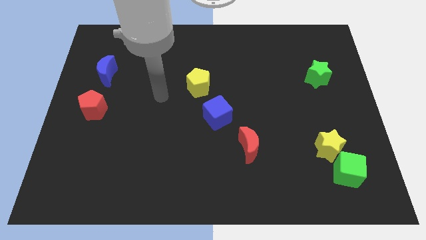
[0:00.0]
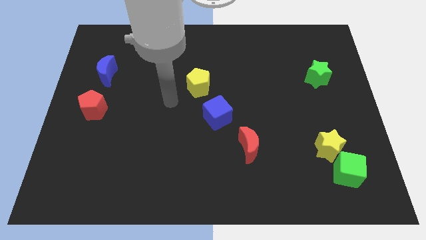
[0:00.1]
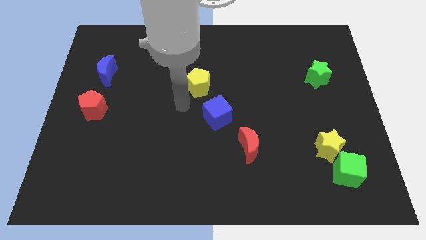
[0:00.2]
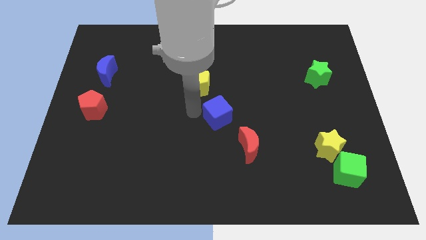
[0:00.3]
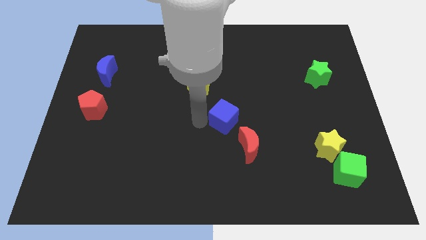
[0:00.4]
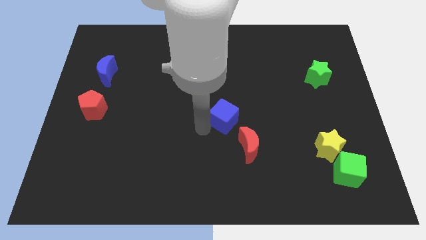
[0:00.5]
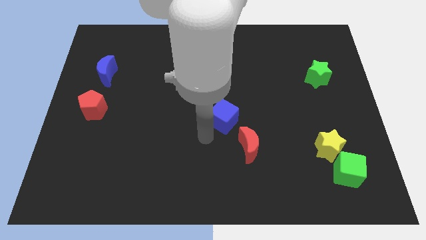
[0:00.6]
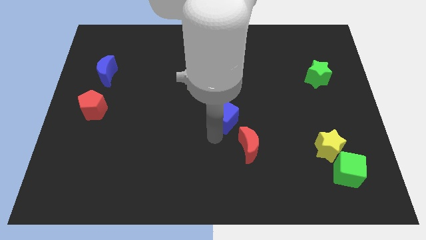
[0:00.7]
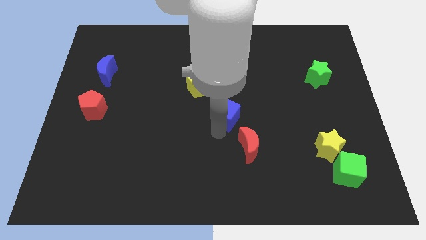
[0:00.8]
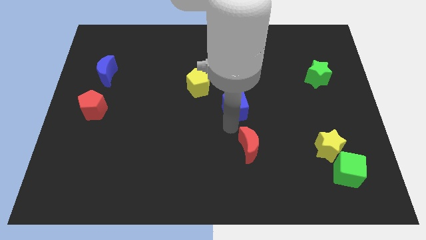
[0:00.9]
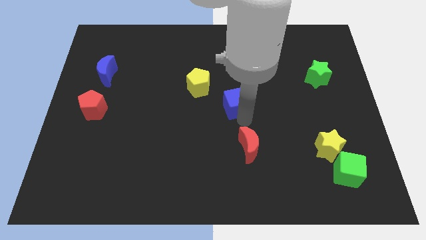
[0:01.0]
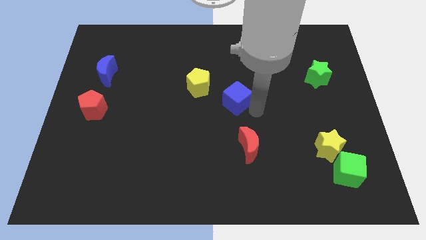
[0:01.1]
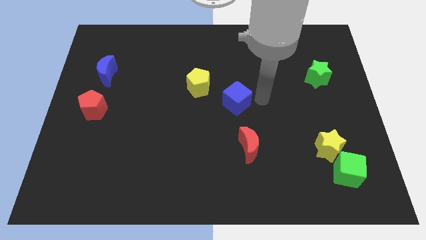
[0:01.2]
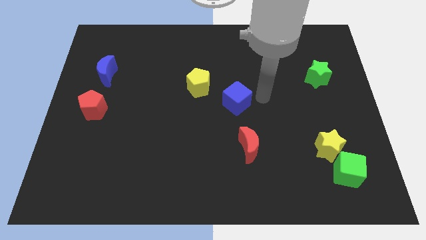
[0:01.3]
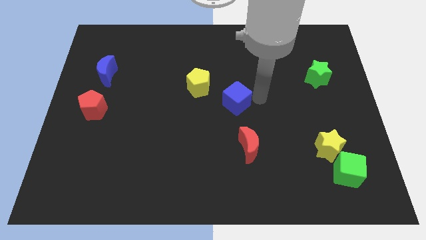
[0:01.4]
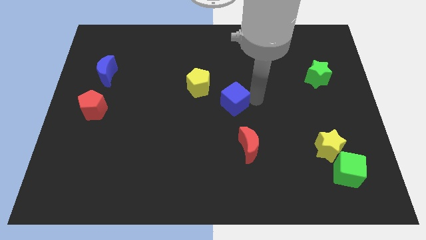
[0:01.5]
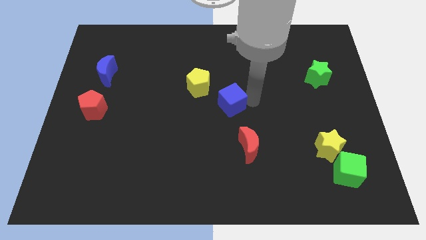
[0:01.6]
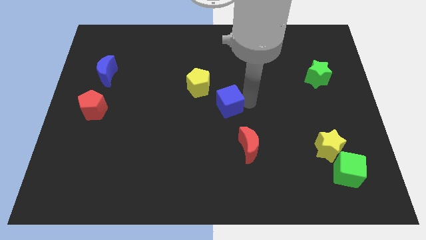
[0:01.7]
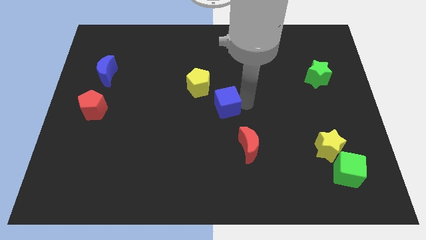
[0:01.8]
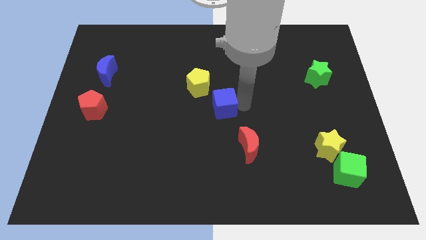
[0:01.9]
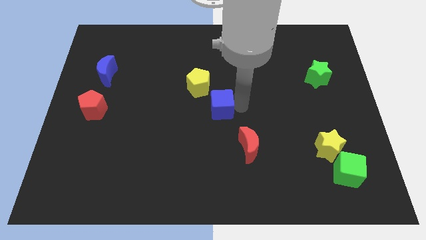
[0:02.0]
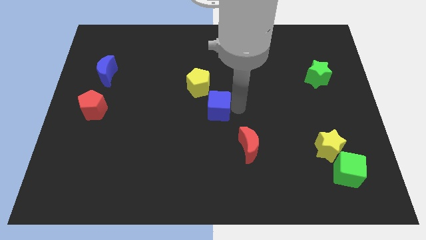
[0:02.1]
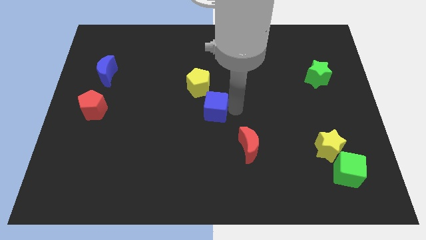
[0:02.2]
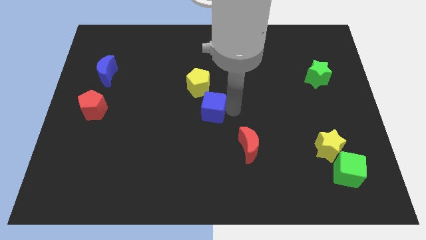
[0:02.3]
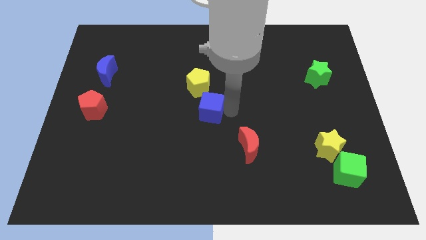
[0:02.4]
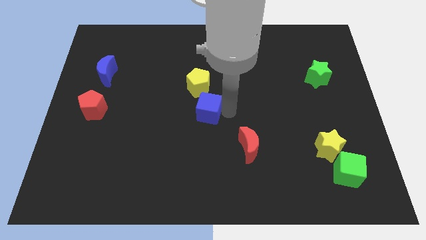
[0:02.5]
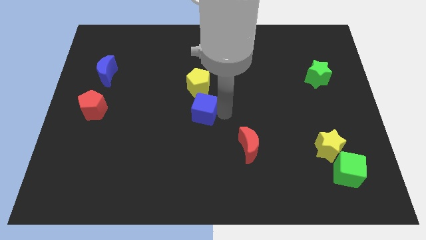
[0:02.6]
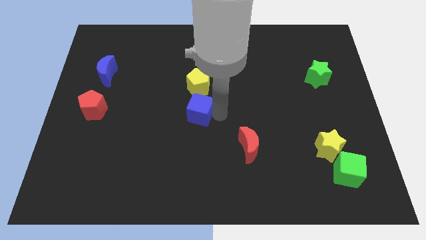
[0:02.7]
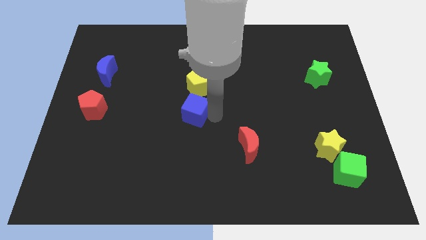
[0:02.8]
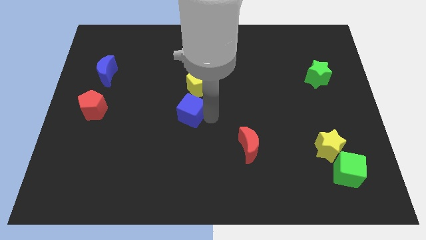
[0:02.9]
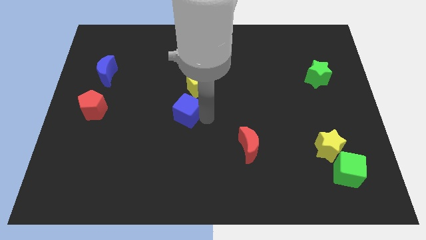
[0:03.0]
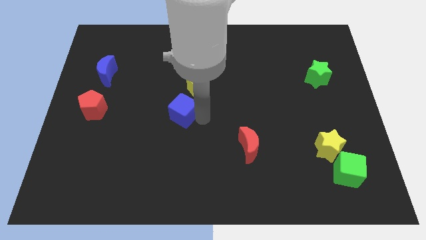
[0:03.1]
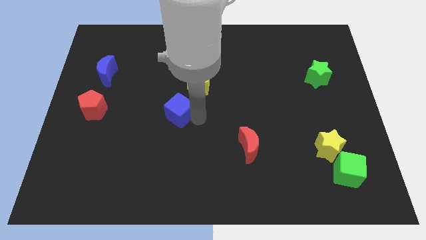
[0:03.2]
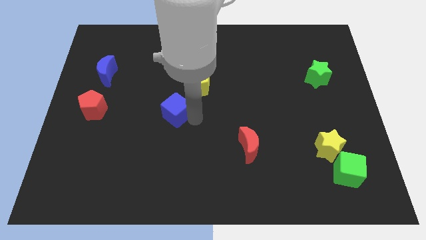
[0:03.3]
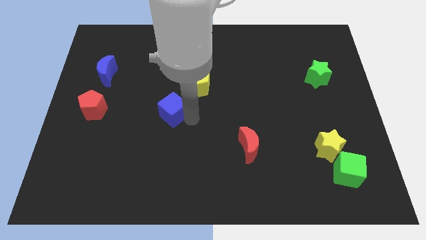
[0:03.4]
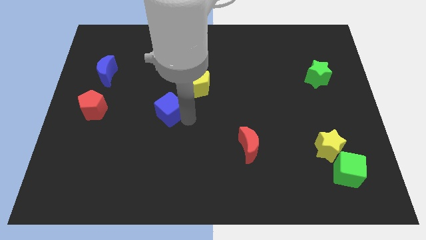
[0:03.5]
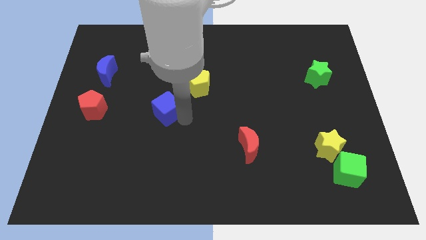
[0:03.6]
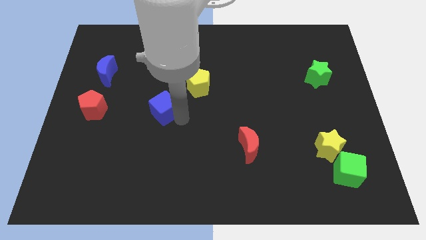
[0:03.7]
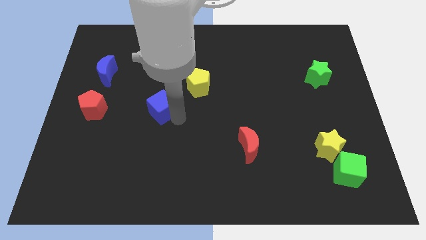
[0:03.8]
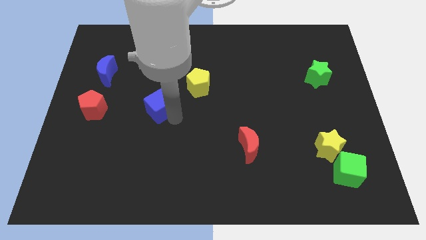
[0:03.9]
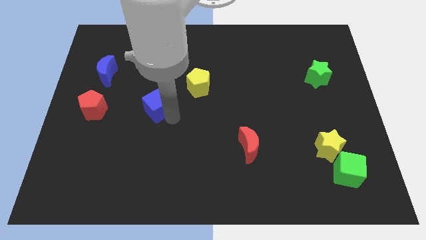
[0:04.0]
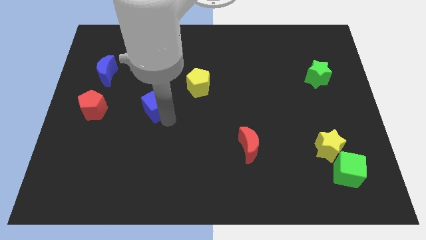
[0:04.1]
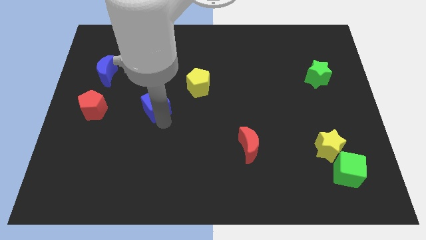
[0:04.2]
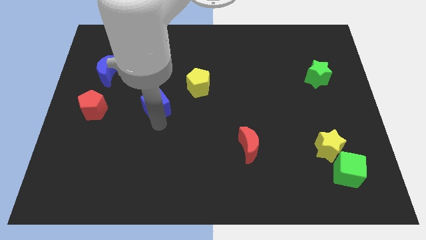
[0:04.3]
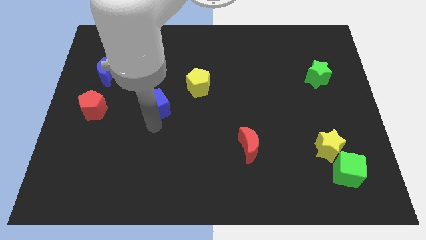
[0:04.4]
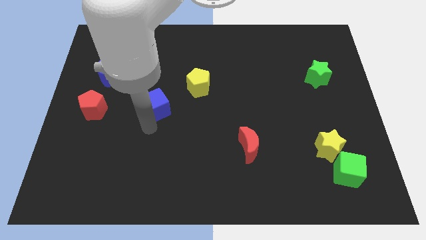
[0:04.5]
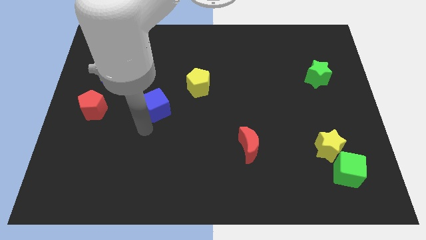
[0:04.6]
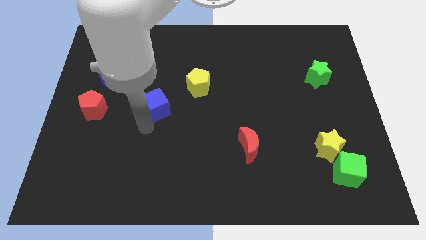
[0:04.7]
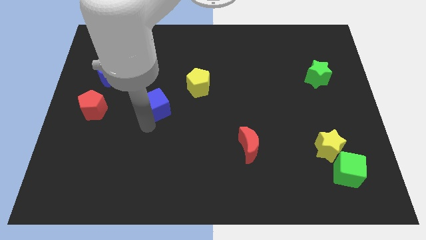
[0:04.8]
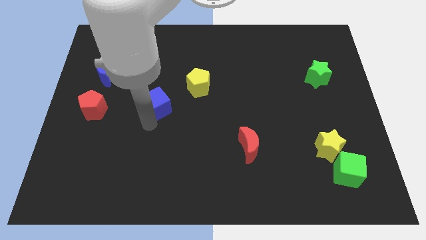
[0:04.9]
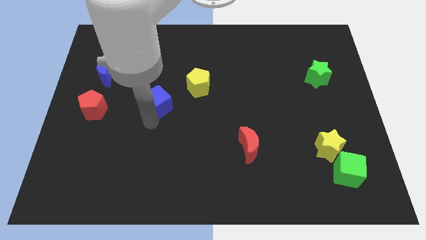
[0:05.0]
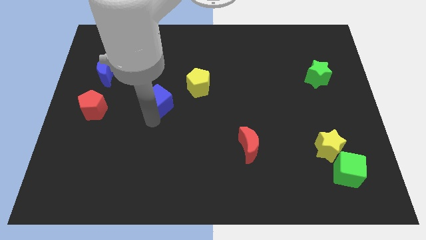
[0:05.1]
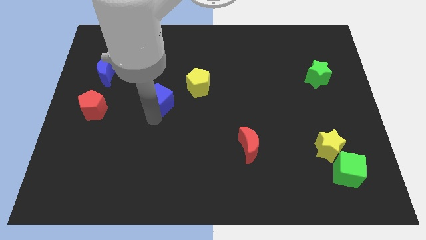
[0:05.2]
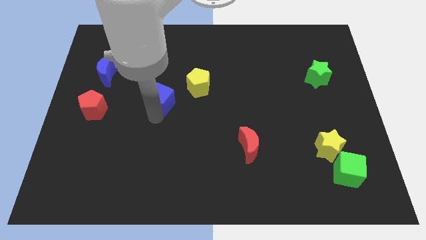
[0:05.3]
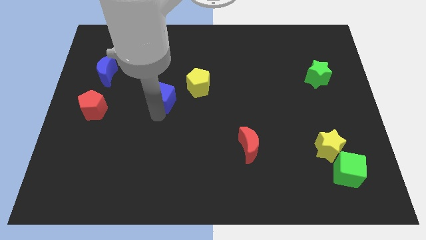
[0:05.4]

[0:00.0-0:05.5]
slide the blue cube to the left side of the yellow pentagon
